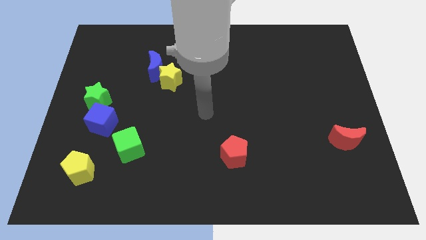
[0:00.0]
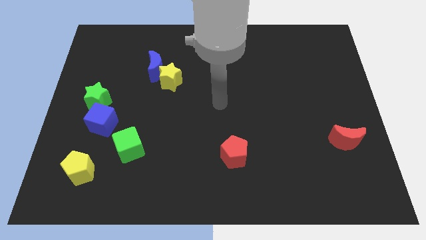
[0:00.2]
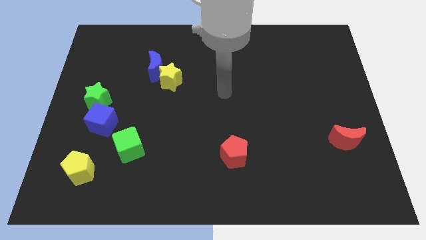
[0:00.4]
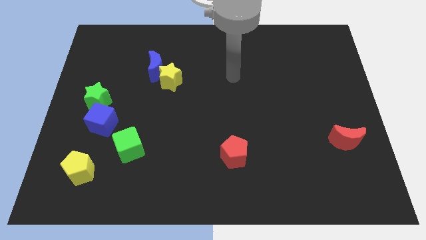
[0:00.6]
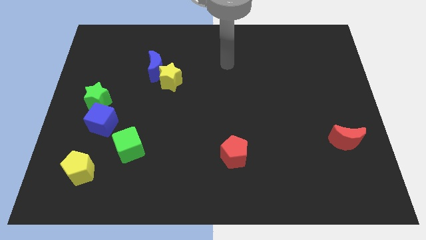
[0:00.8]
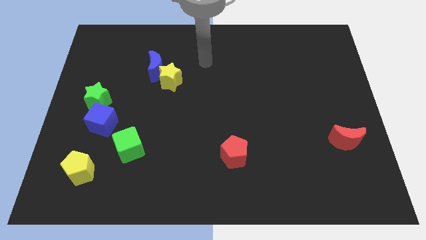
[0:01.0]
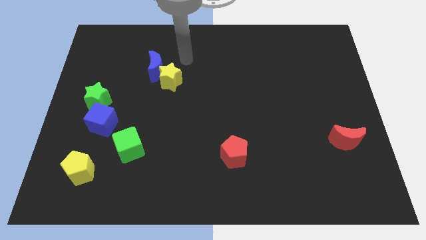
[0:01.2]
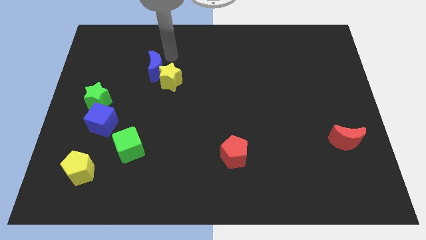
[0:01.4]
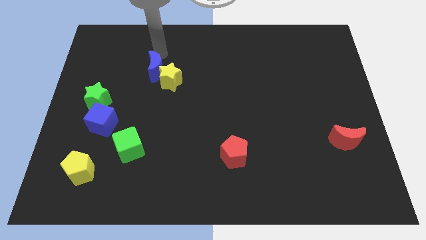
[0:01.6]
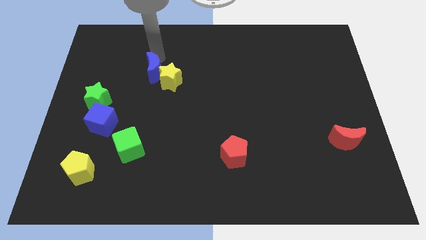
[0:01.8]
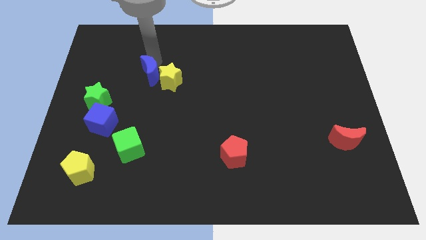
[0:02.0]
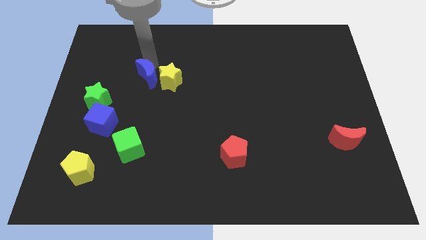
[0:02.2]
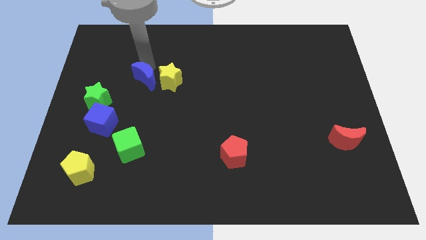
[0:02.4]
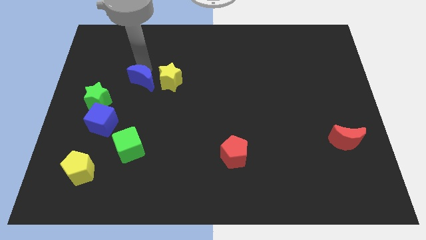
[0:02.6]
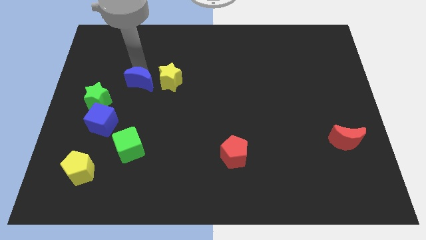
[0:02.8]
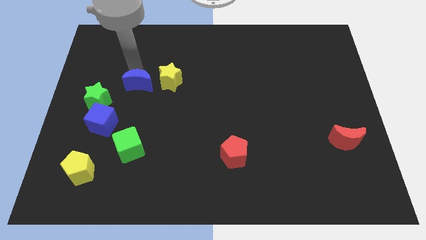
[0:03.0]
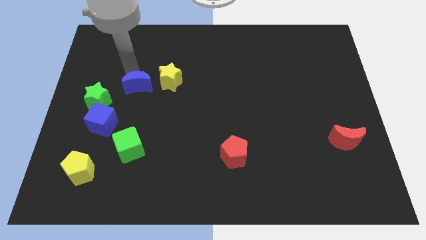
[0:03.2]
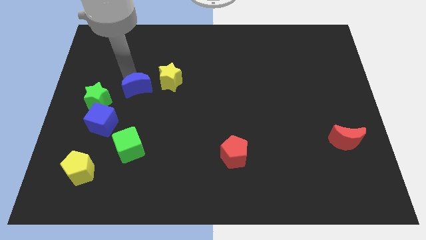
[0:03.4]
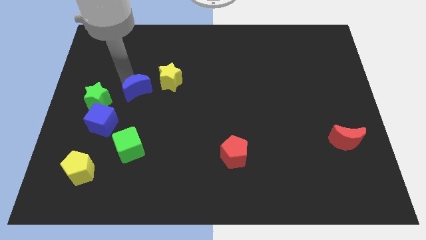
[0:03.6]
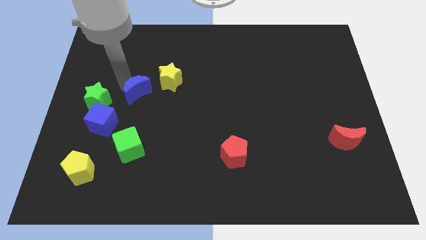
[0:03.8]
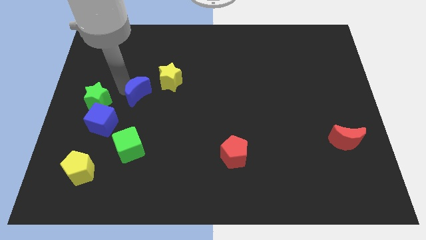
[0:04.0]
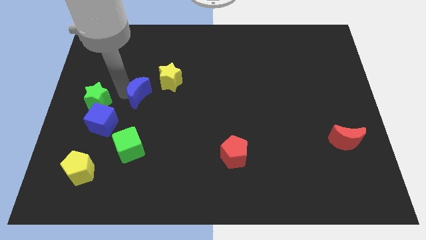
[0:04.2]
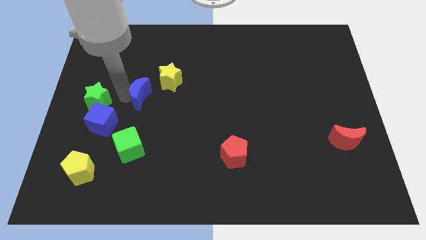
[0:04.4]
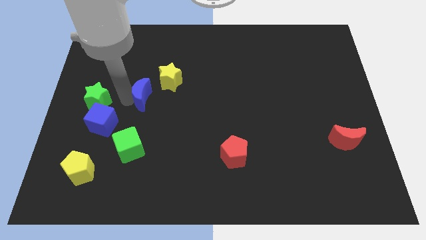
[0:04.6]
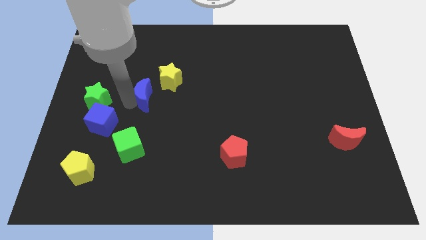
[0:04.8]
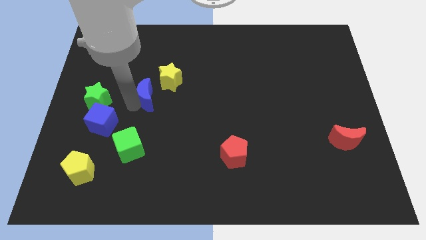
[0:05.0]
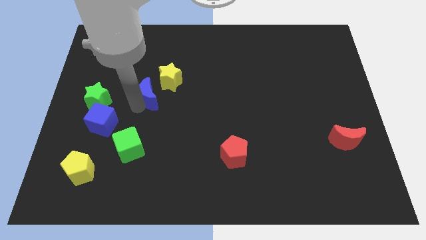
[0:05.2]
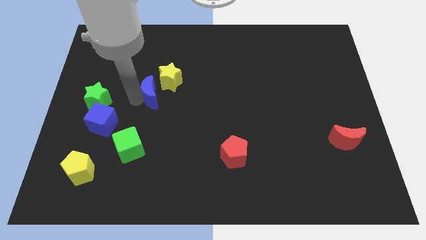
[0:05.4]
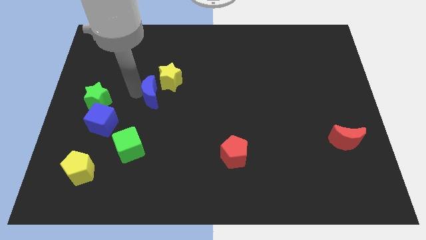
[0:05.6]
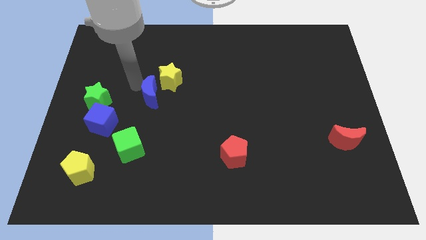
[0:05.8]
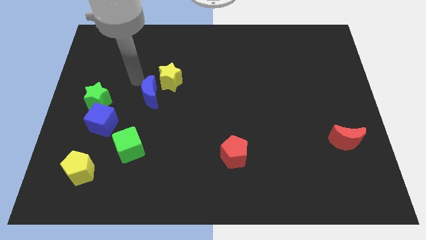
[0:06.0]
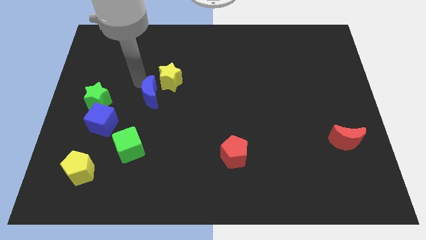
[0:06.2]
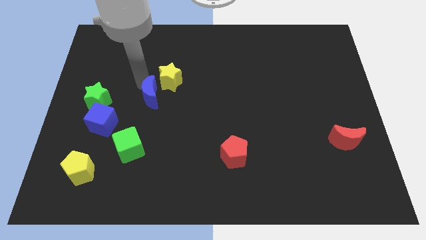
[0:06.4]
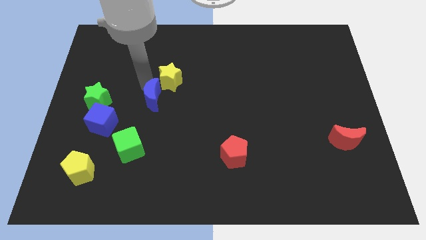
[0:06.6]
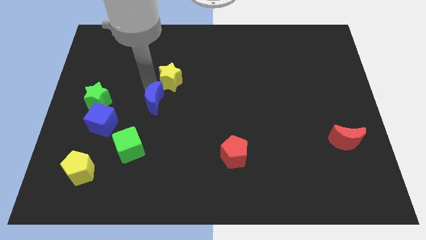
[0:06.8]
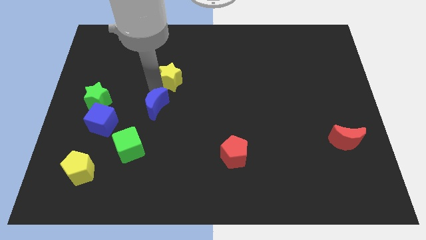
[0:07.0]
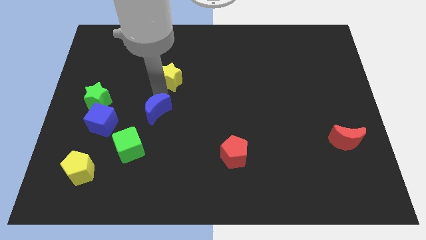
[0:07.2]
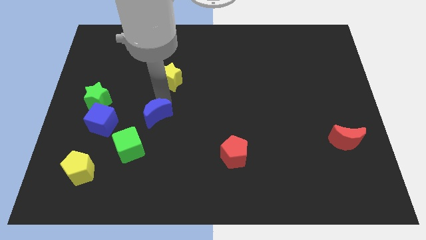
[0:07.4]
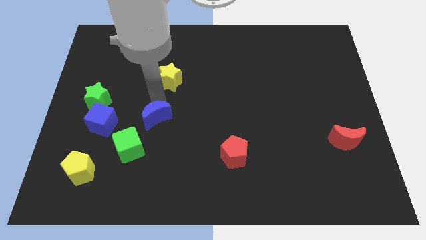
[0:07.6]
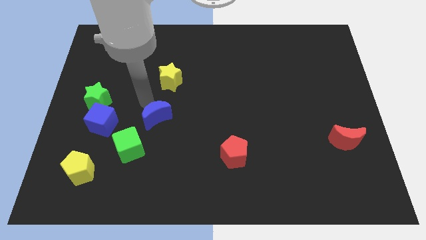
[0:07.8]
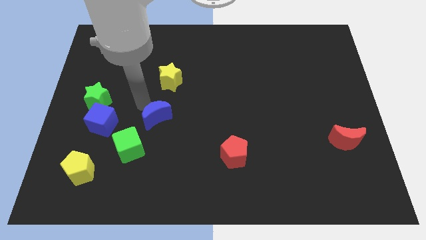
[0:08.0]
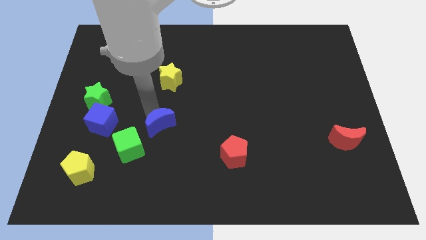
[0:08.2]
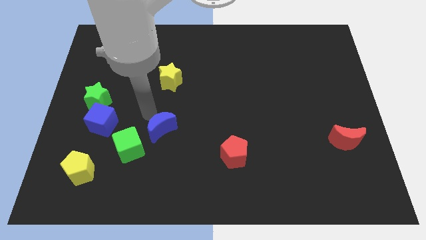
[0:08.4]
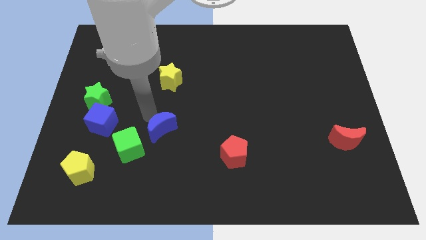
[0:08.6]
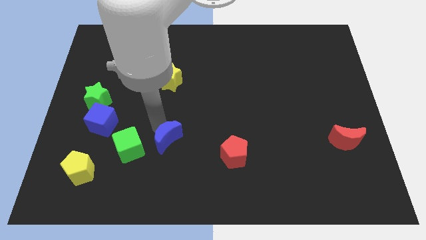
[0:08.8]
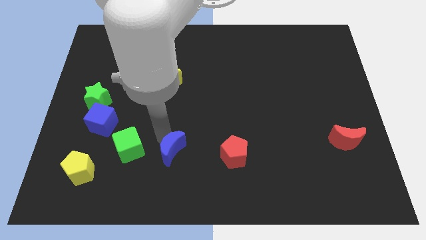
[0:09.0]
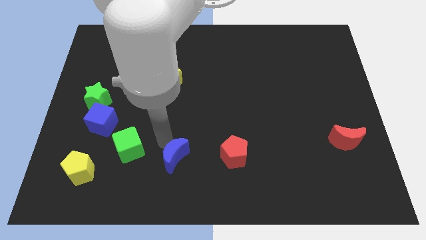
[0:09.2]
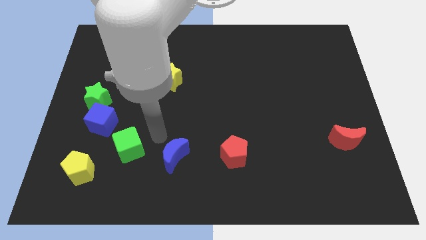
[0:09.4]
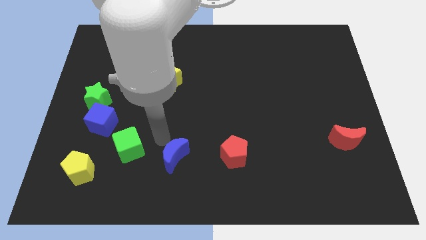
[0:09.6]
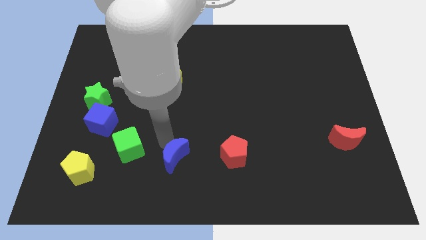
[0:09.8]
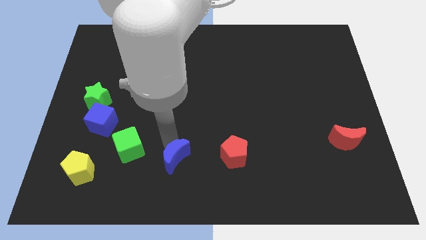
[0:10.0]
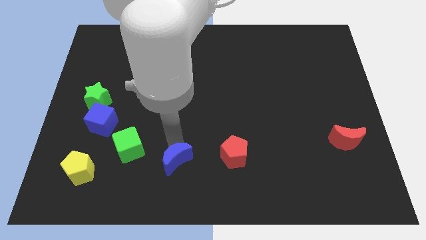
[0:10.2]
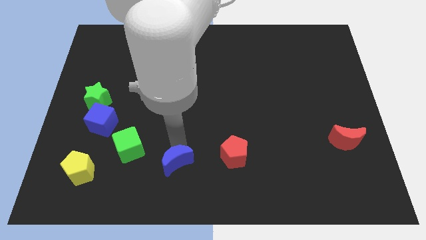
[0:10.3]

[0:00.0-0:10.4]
push the blue moon to the bottom
